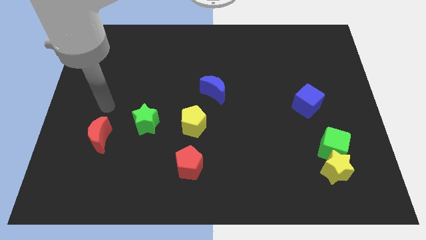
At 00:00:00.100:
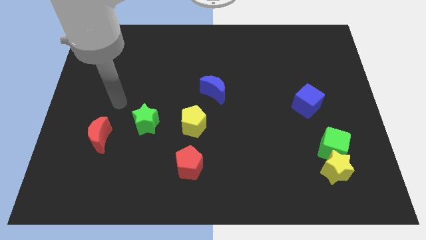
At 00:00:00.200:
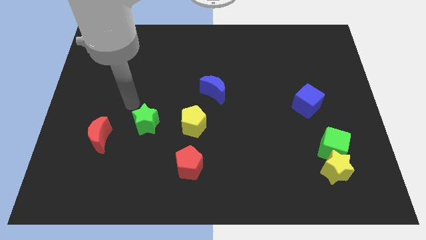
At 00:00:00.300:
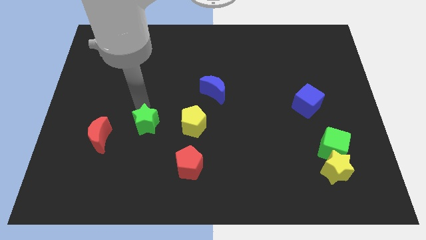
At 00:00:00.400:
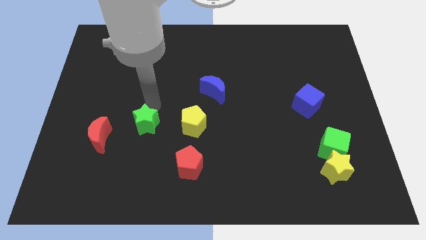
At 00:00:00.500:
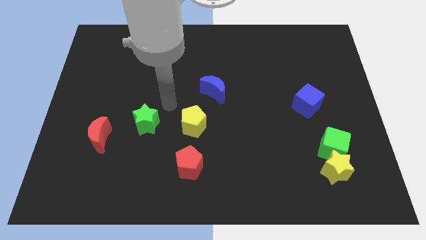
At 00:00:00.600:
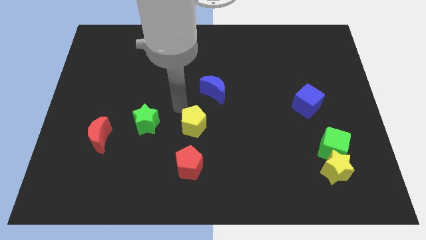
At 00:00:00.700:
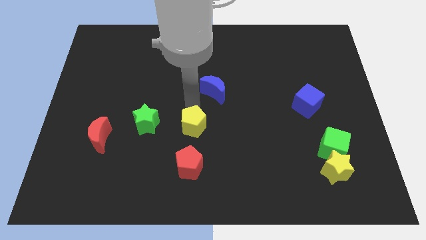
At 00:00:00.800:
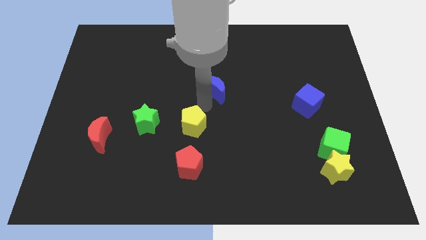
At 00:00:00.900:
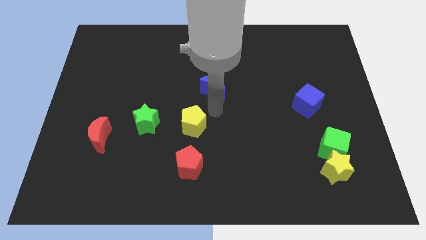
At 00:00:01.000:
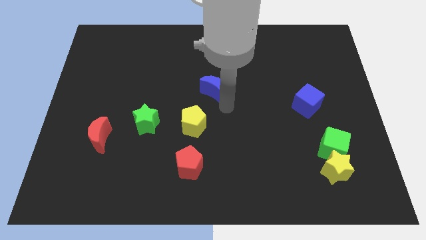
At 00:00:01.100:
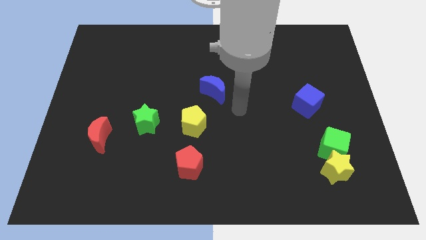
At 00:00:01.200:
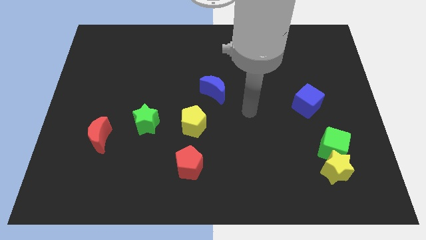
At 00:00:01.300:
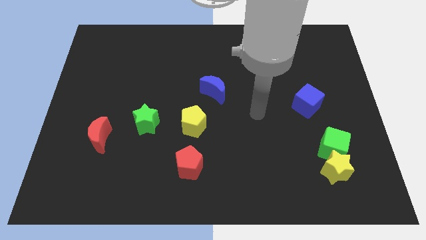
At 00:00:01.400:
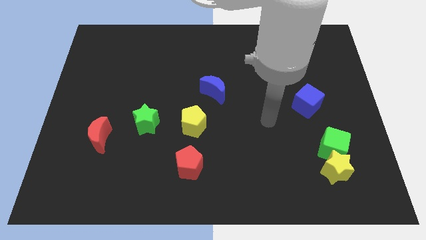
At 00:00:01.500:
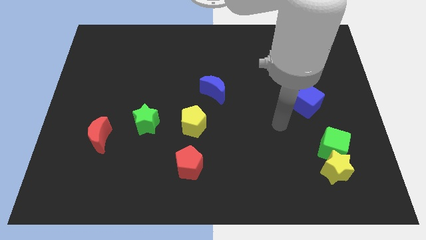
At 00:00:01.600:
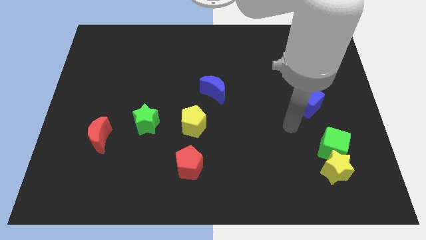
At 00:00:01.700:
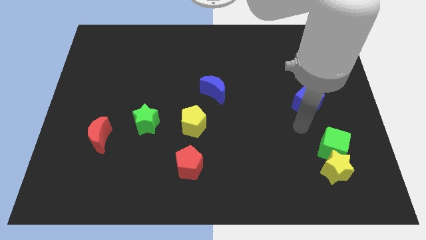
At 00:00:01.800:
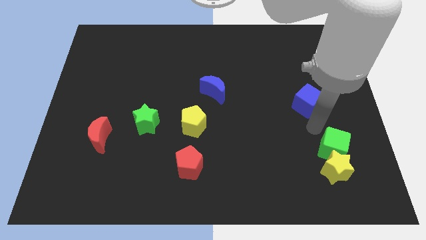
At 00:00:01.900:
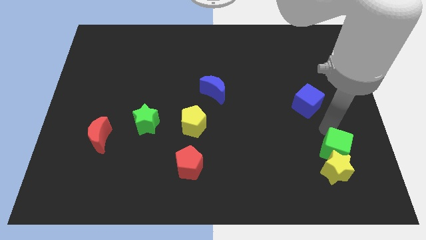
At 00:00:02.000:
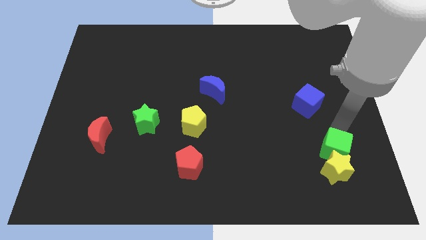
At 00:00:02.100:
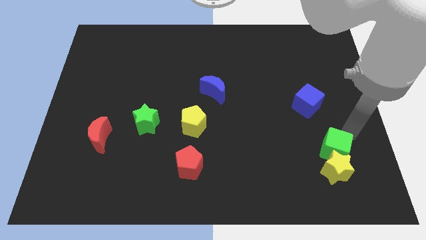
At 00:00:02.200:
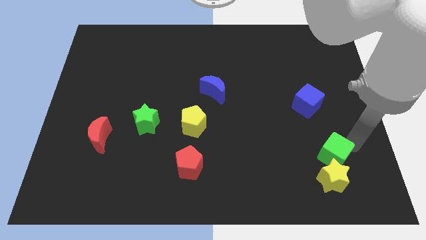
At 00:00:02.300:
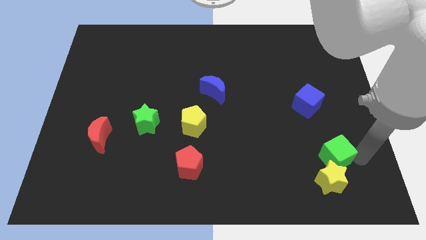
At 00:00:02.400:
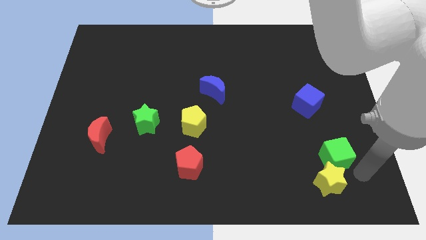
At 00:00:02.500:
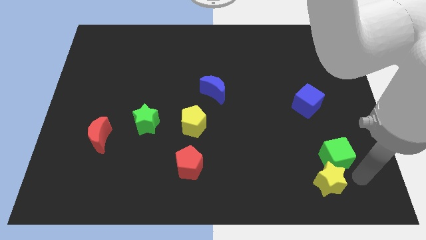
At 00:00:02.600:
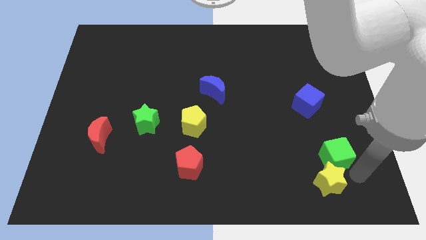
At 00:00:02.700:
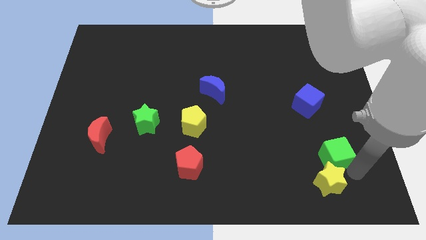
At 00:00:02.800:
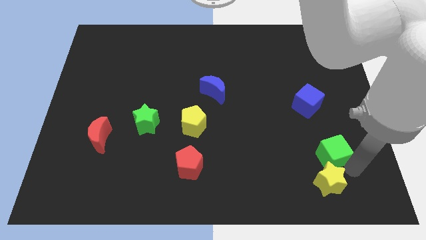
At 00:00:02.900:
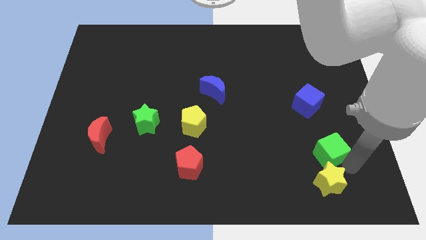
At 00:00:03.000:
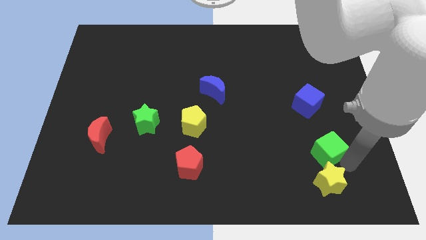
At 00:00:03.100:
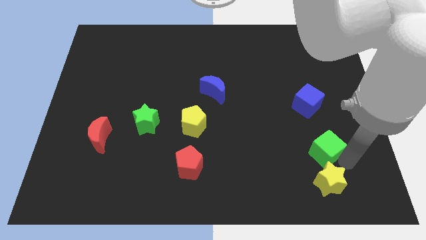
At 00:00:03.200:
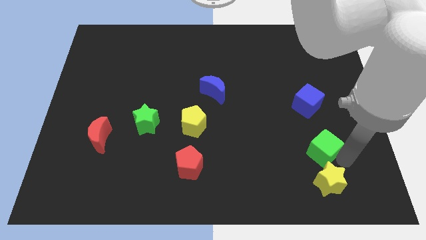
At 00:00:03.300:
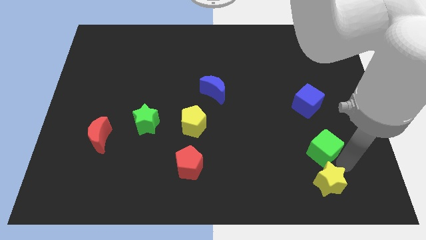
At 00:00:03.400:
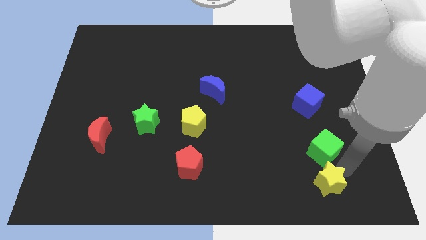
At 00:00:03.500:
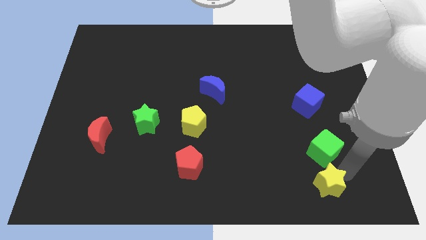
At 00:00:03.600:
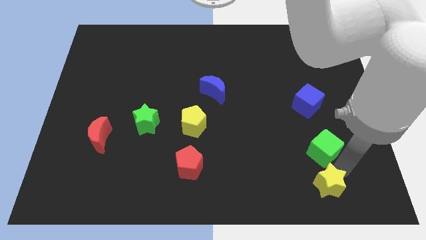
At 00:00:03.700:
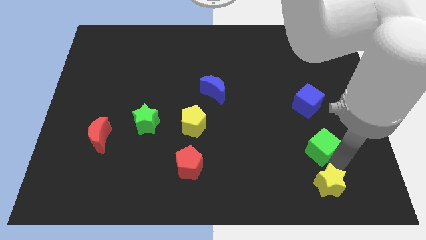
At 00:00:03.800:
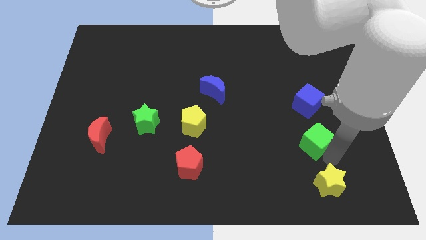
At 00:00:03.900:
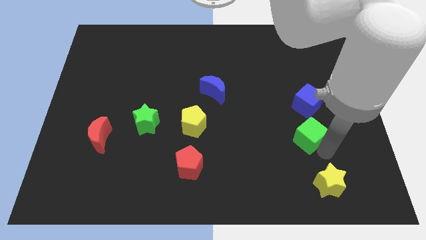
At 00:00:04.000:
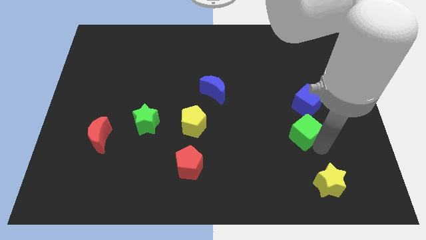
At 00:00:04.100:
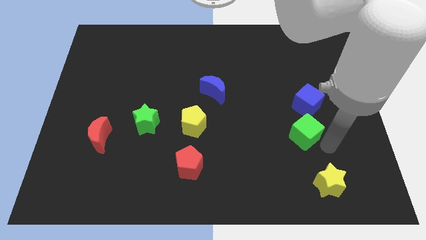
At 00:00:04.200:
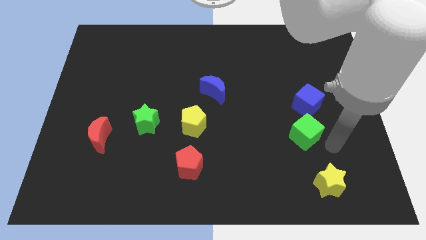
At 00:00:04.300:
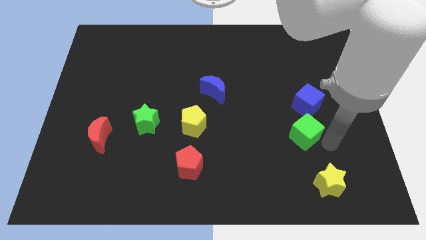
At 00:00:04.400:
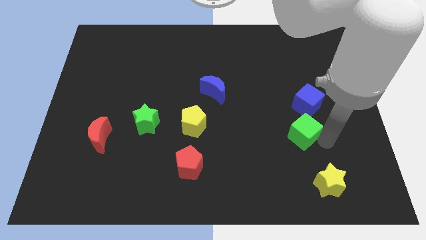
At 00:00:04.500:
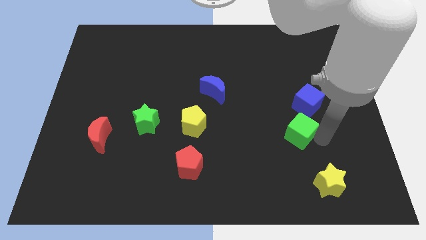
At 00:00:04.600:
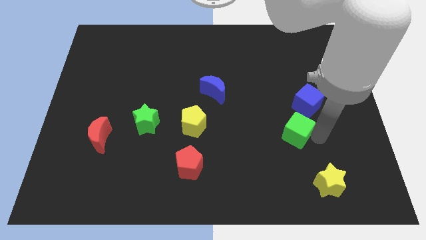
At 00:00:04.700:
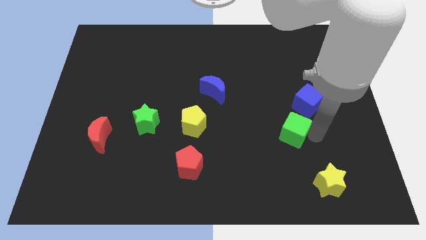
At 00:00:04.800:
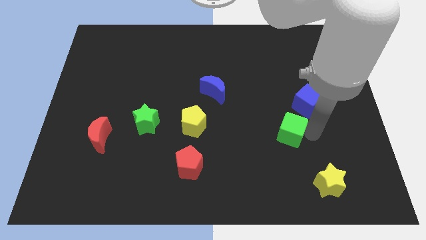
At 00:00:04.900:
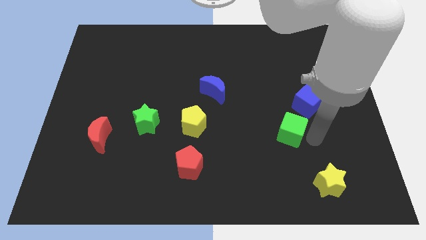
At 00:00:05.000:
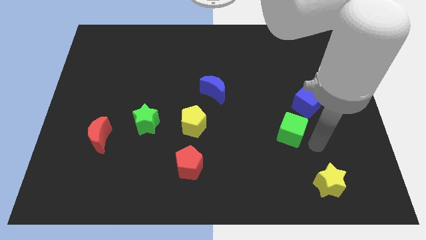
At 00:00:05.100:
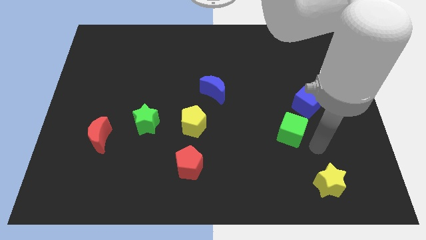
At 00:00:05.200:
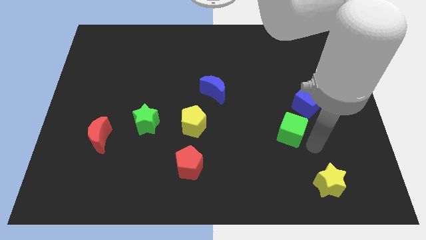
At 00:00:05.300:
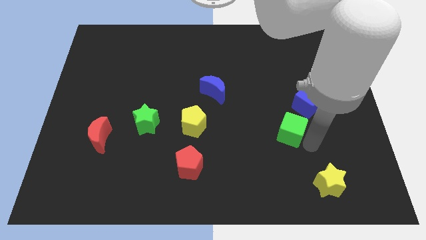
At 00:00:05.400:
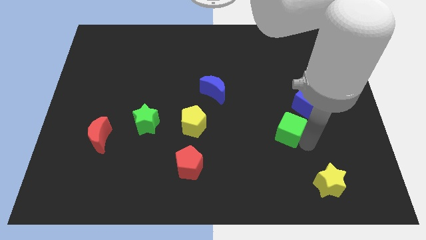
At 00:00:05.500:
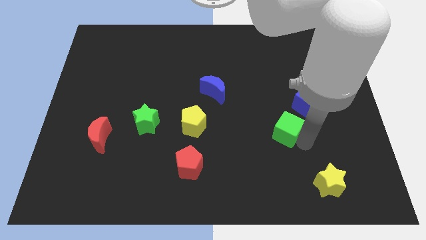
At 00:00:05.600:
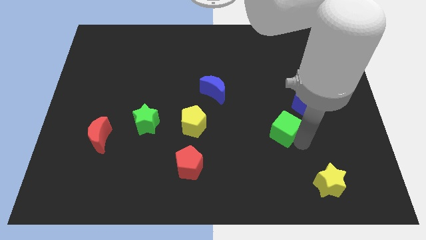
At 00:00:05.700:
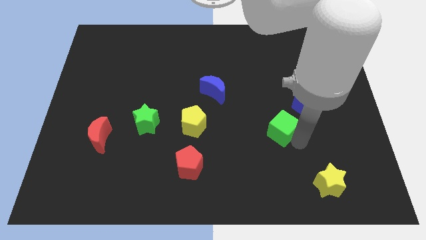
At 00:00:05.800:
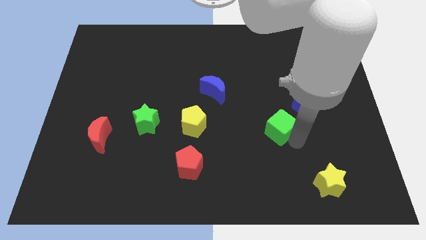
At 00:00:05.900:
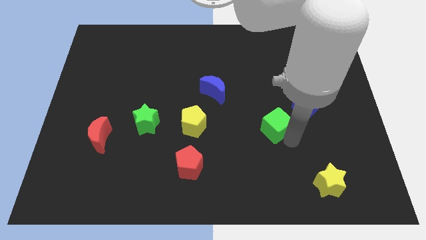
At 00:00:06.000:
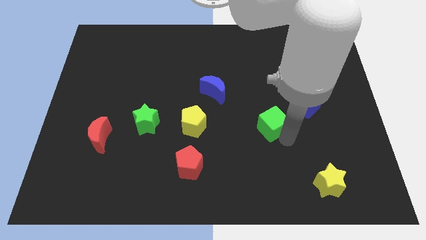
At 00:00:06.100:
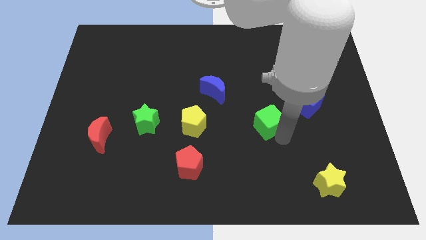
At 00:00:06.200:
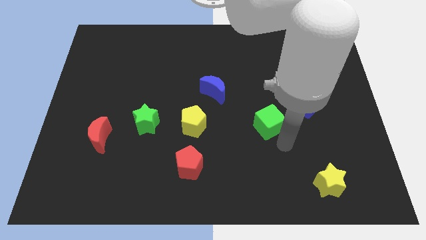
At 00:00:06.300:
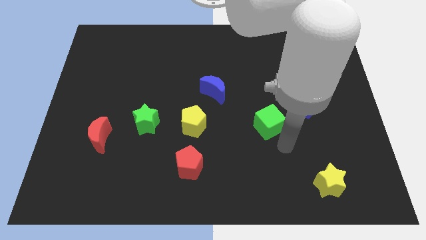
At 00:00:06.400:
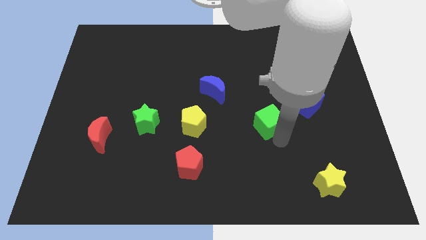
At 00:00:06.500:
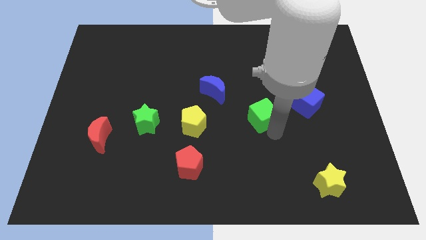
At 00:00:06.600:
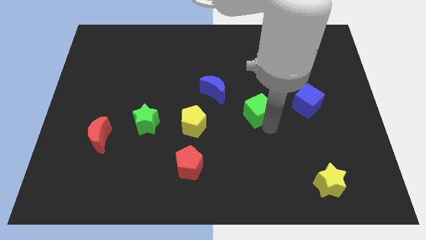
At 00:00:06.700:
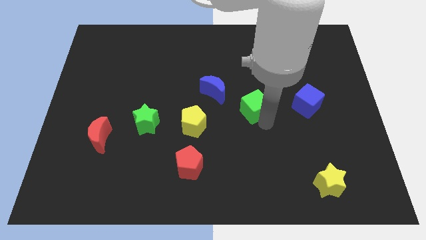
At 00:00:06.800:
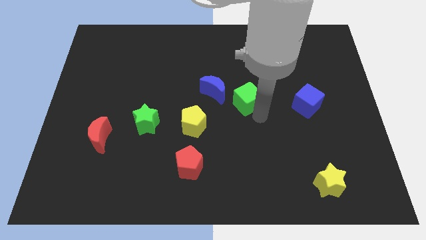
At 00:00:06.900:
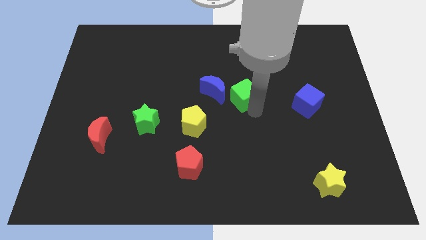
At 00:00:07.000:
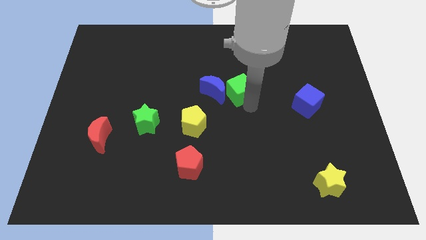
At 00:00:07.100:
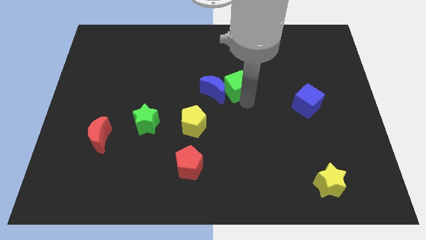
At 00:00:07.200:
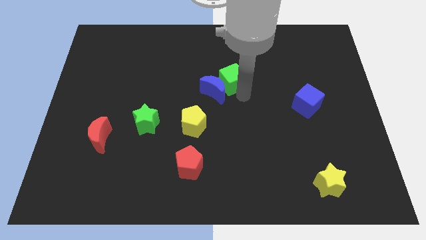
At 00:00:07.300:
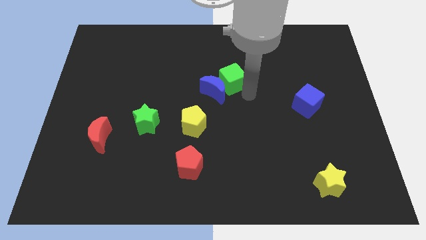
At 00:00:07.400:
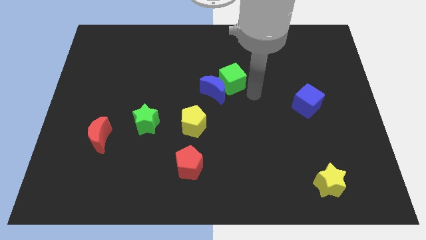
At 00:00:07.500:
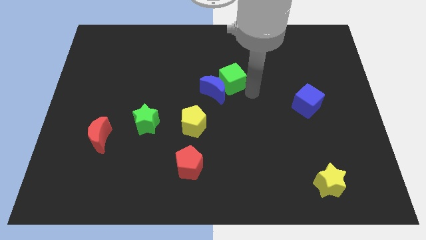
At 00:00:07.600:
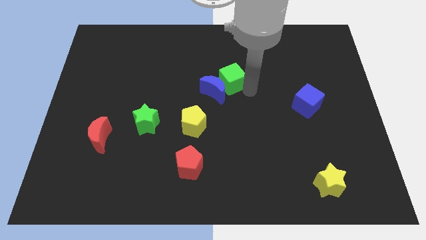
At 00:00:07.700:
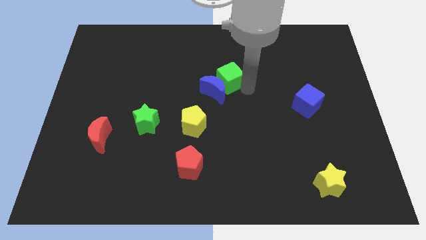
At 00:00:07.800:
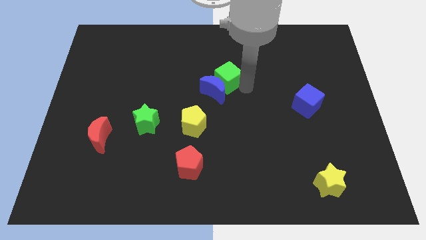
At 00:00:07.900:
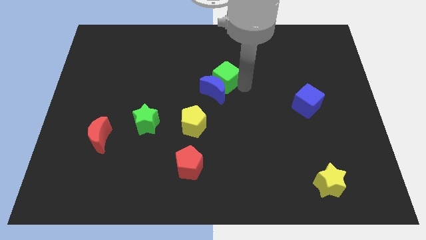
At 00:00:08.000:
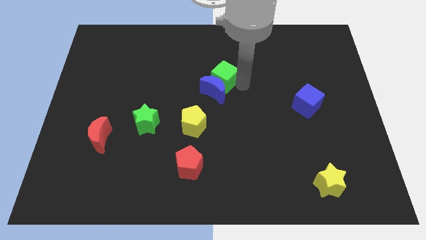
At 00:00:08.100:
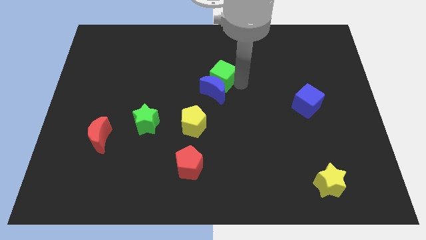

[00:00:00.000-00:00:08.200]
slide the green cube diagonally up and to the left of the blue moon

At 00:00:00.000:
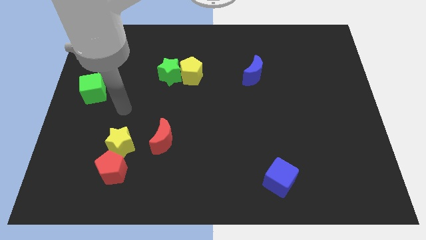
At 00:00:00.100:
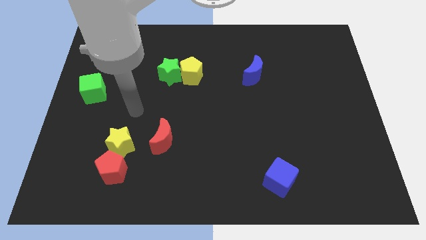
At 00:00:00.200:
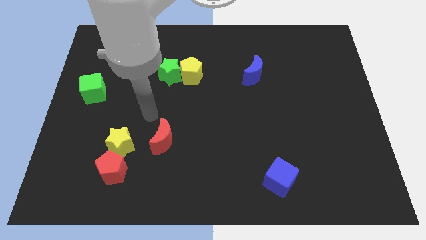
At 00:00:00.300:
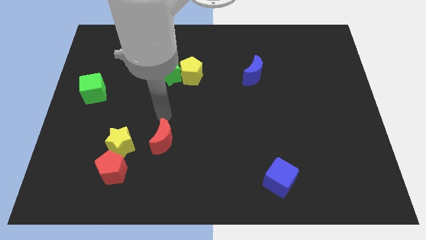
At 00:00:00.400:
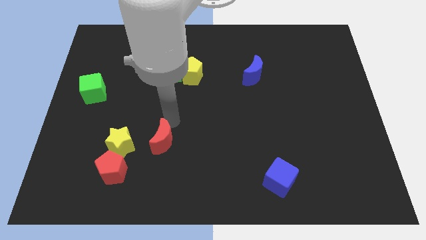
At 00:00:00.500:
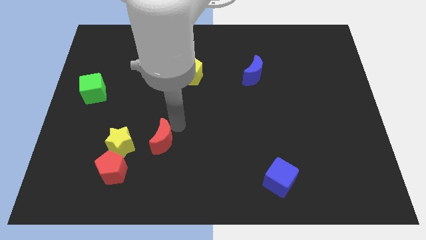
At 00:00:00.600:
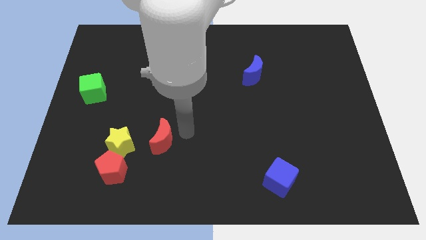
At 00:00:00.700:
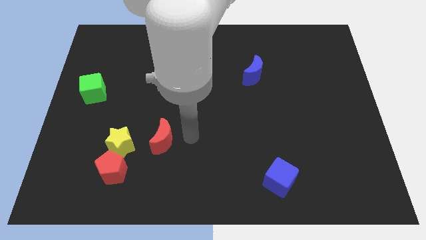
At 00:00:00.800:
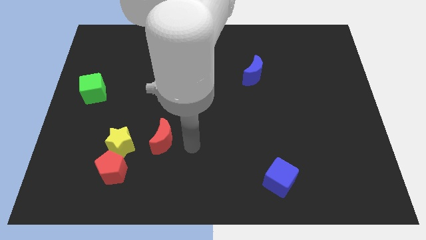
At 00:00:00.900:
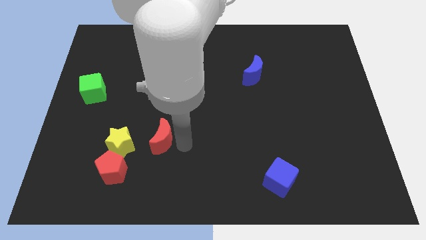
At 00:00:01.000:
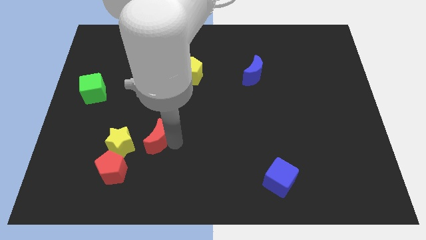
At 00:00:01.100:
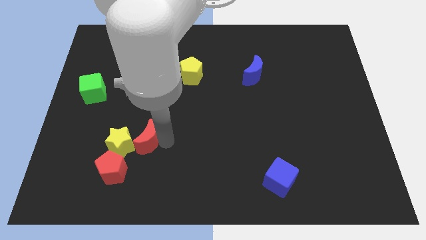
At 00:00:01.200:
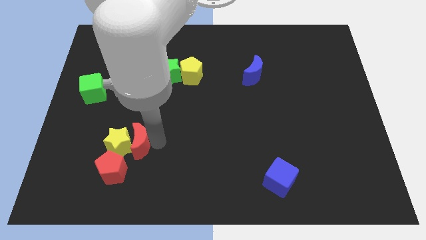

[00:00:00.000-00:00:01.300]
move the red moon to the top of the red pentagon
